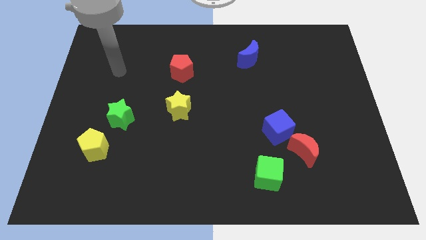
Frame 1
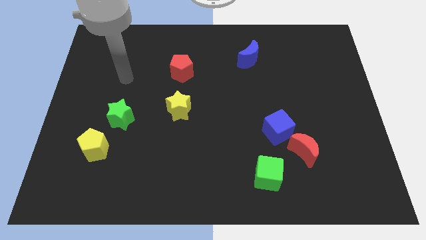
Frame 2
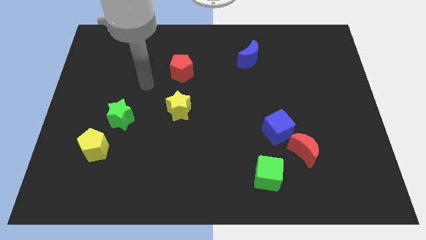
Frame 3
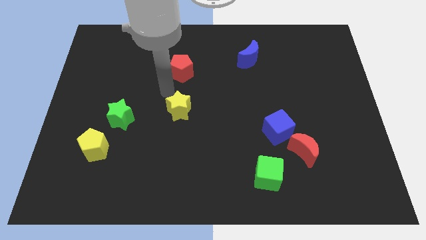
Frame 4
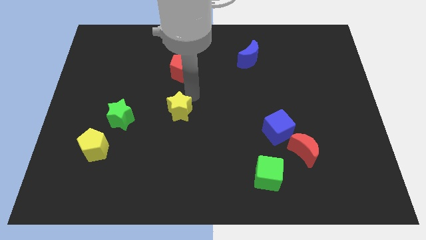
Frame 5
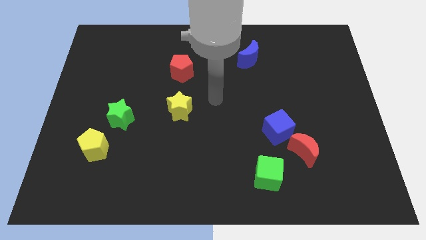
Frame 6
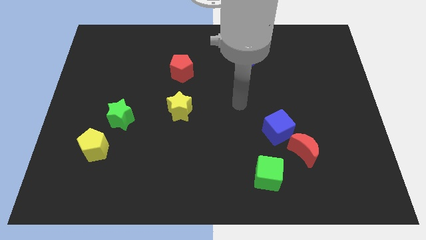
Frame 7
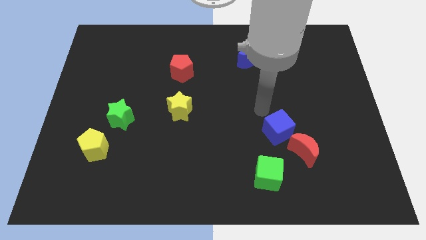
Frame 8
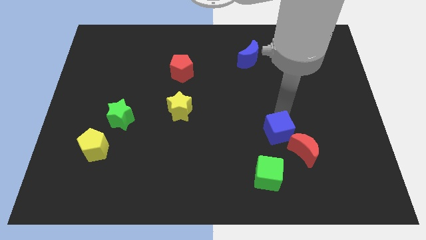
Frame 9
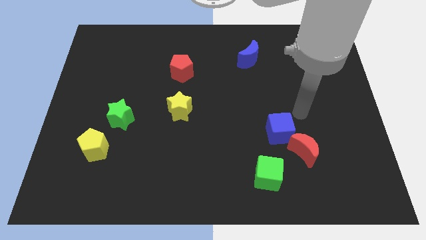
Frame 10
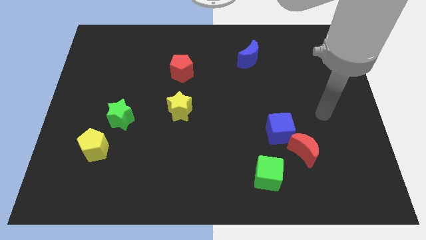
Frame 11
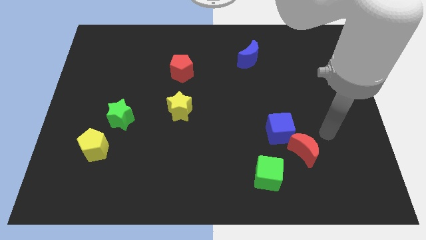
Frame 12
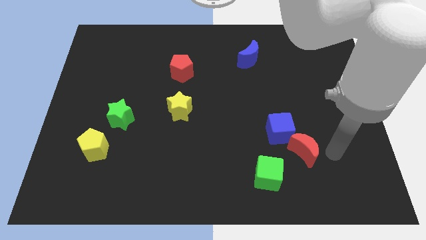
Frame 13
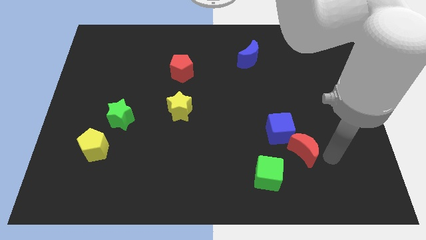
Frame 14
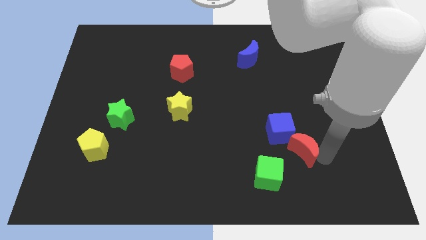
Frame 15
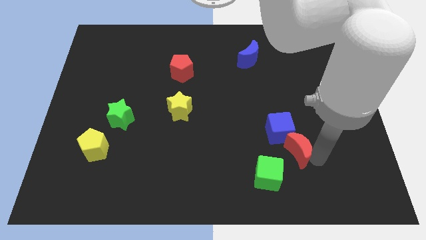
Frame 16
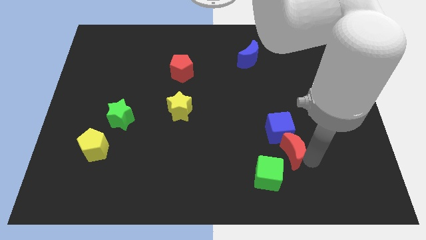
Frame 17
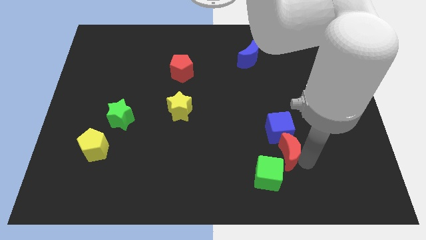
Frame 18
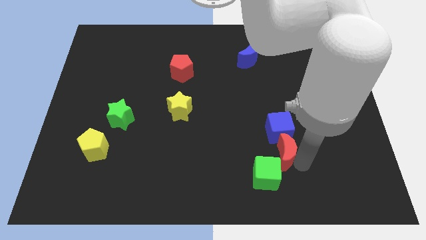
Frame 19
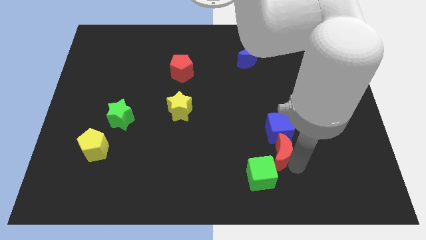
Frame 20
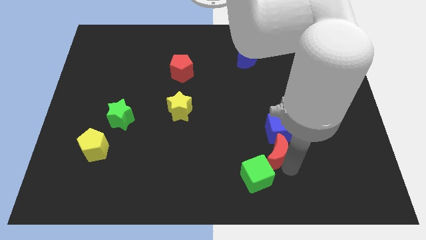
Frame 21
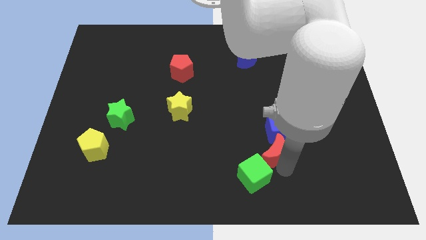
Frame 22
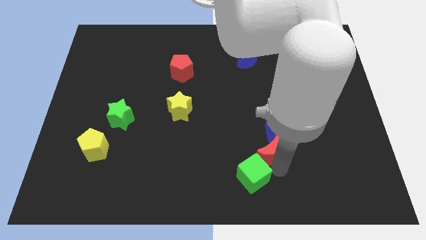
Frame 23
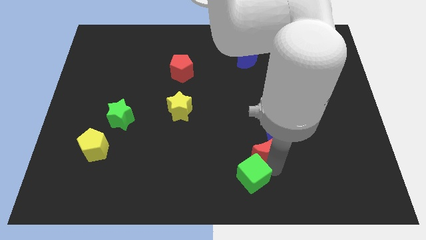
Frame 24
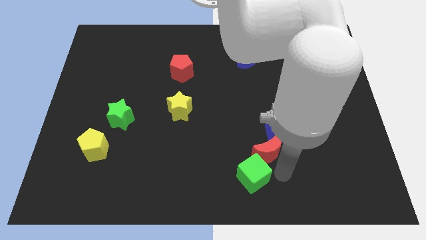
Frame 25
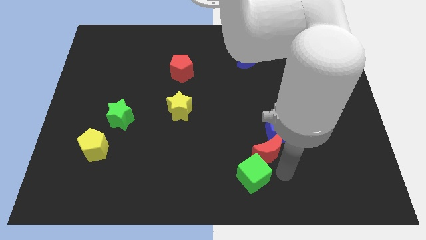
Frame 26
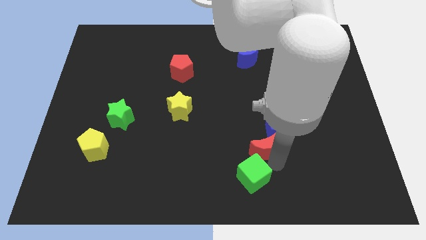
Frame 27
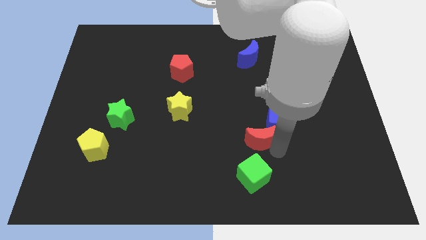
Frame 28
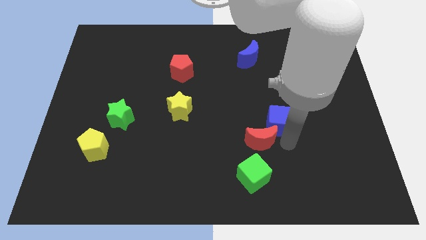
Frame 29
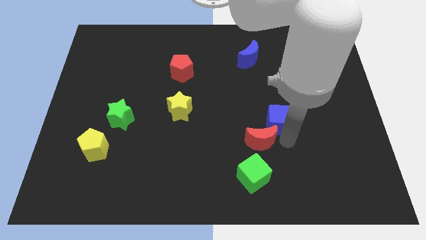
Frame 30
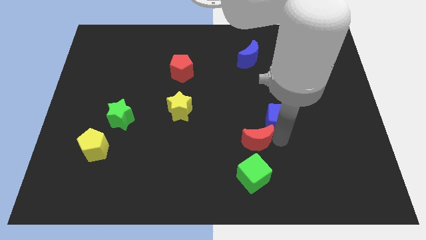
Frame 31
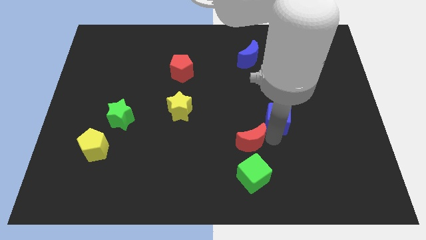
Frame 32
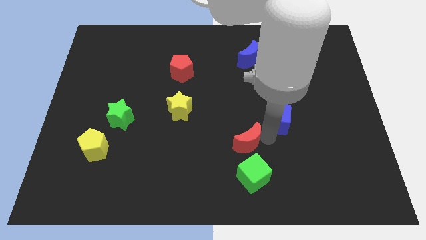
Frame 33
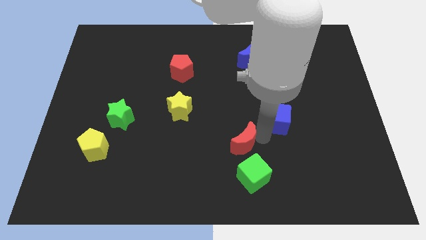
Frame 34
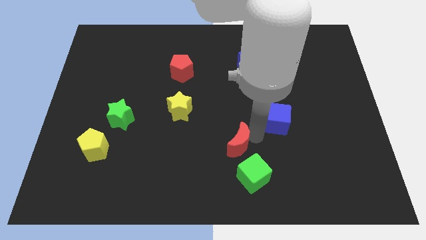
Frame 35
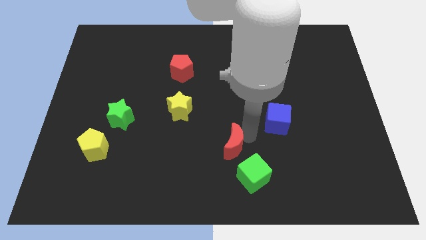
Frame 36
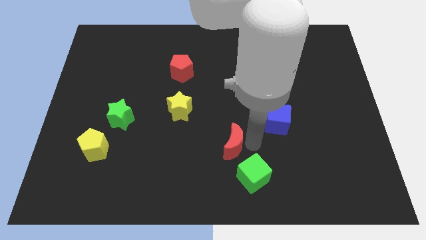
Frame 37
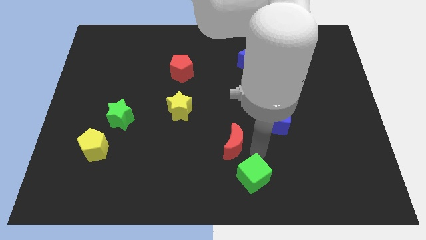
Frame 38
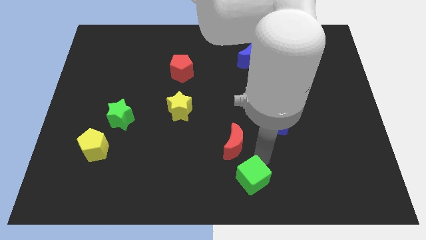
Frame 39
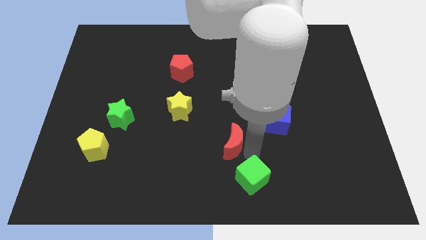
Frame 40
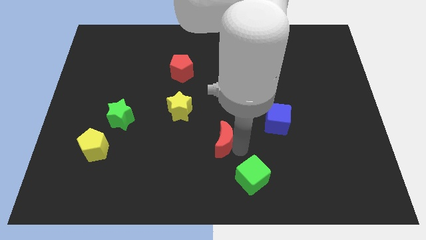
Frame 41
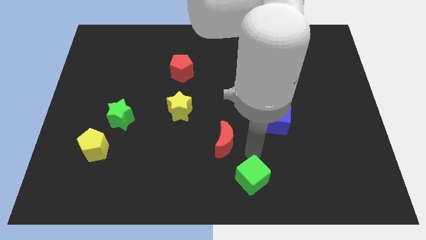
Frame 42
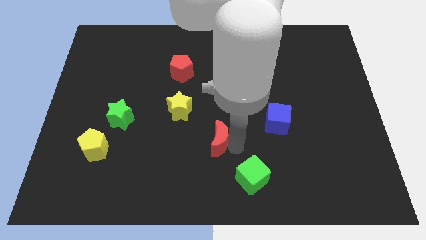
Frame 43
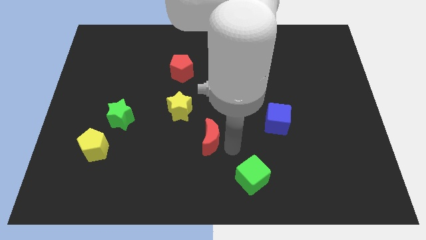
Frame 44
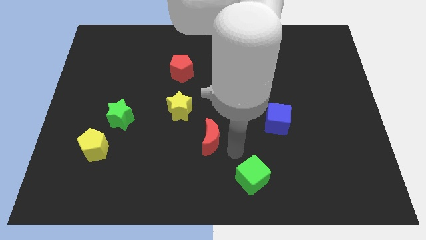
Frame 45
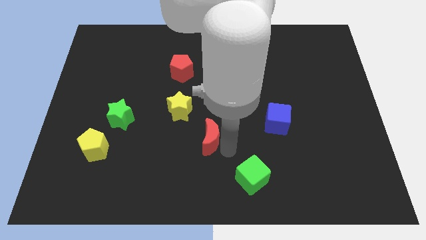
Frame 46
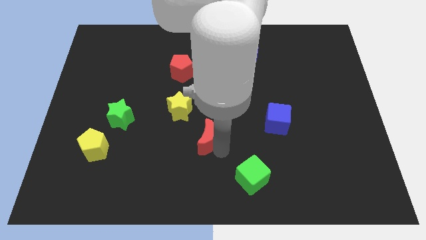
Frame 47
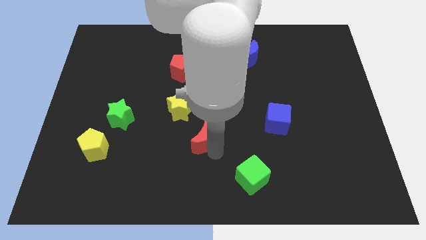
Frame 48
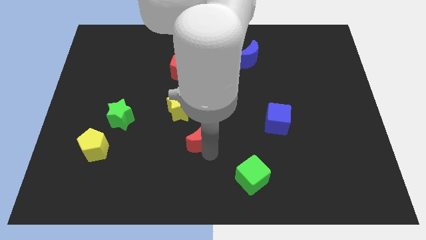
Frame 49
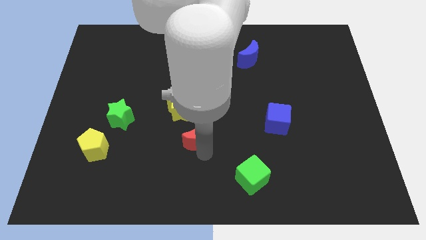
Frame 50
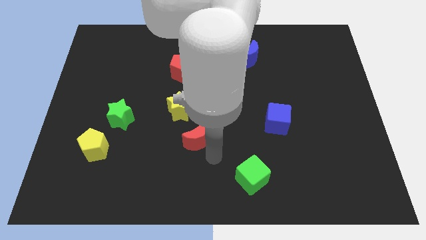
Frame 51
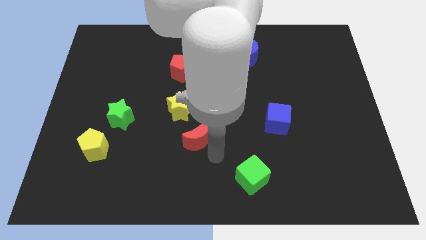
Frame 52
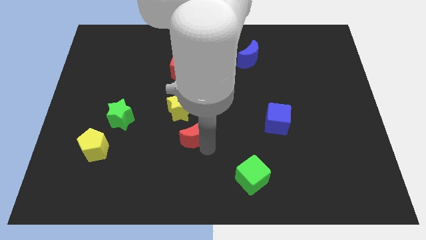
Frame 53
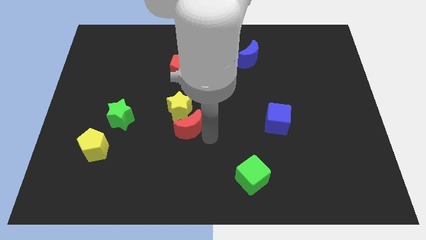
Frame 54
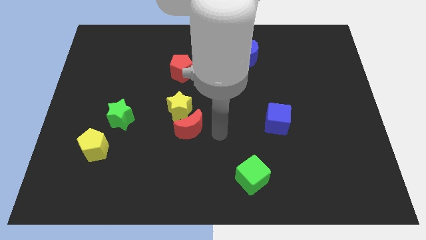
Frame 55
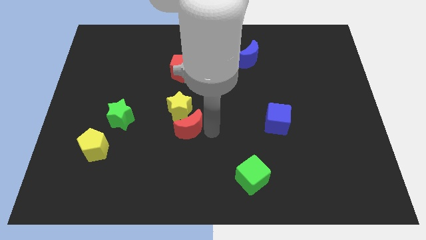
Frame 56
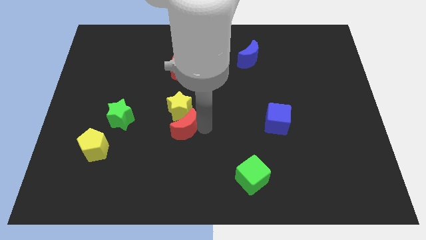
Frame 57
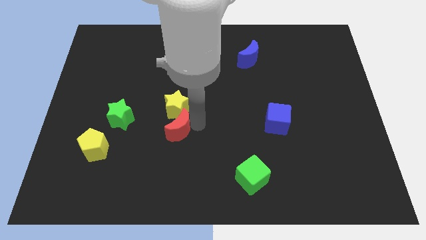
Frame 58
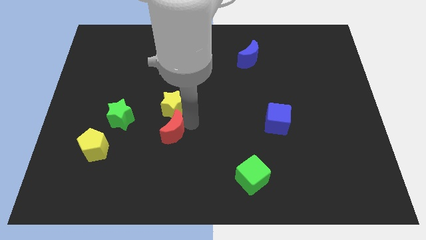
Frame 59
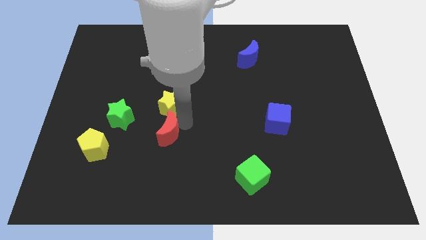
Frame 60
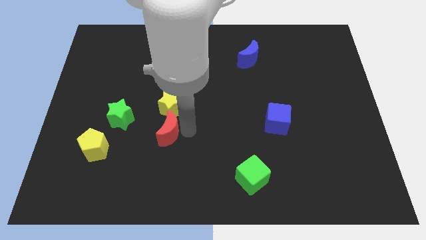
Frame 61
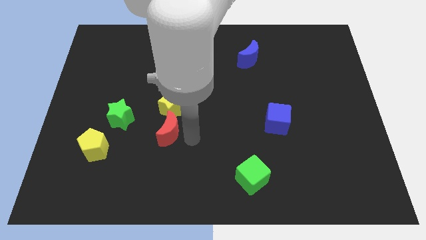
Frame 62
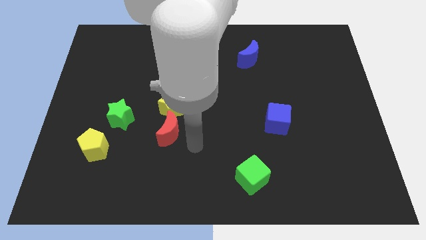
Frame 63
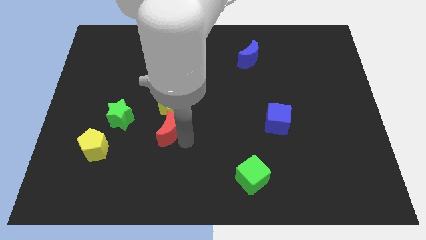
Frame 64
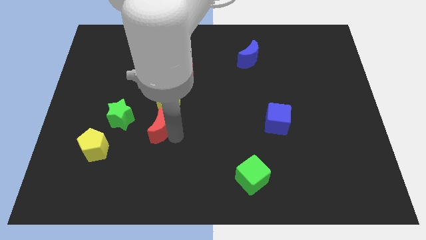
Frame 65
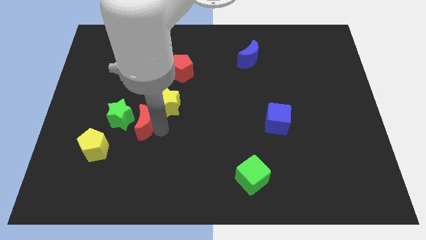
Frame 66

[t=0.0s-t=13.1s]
move the red moon close to the green star
